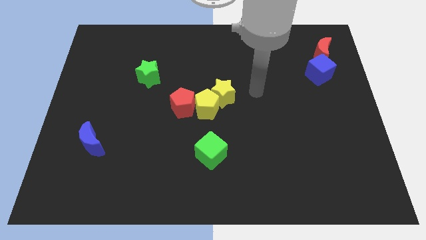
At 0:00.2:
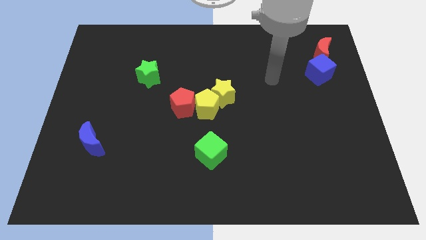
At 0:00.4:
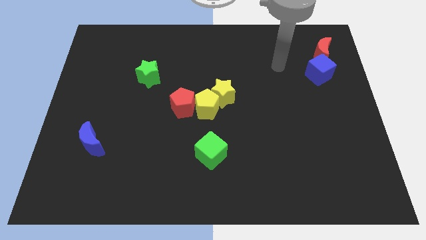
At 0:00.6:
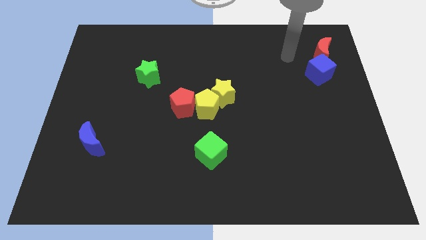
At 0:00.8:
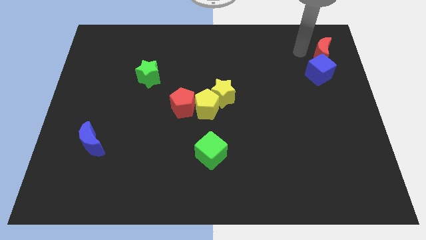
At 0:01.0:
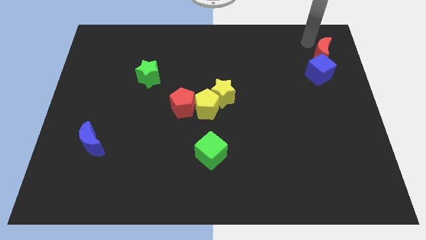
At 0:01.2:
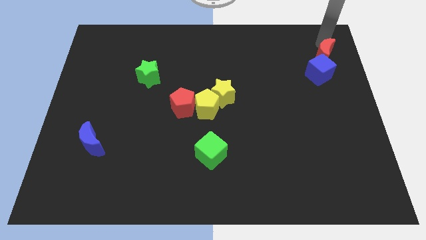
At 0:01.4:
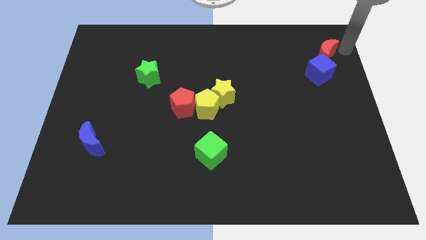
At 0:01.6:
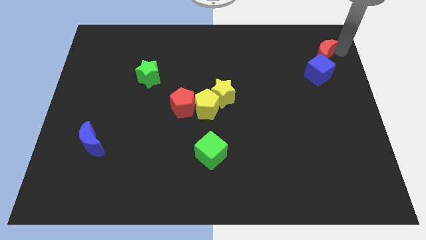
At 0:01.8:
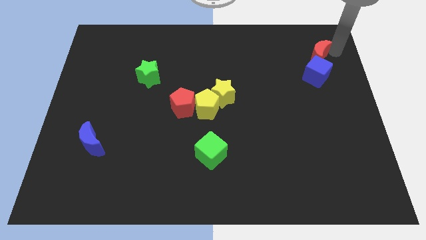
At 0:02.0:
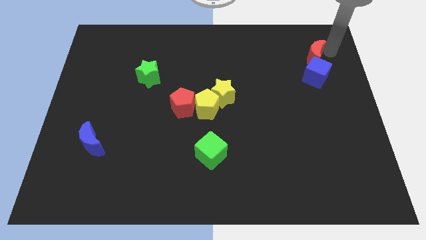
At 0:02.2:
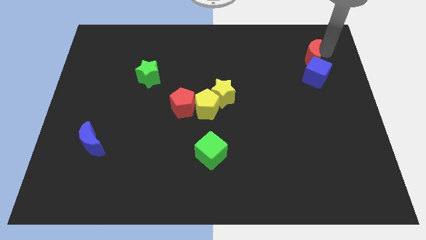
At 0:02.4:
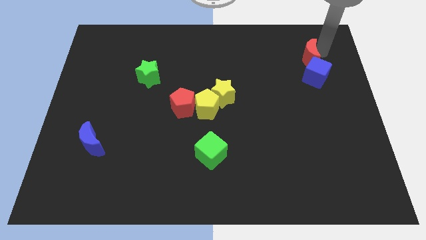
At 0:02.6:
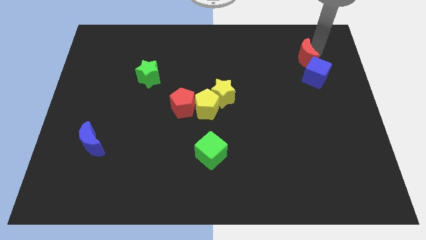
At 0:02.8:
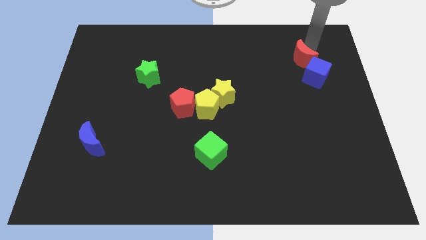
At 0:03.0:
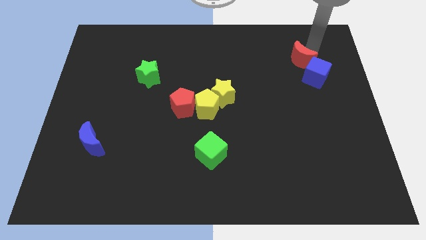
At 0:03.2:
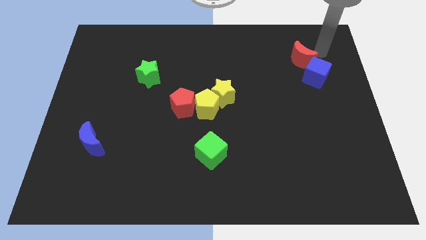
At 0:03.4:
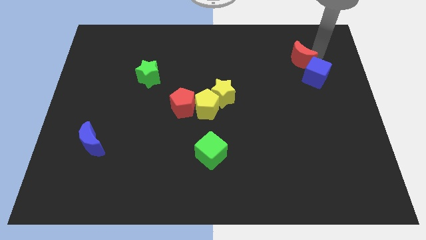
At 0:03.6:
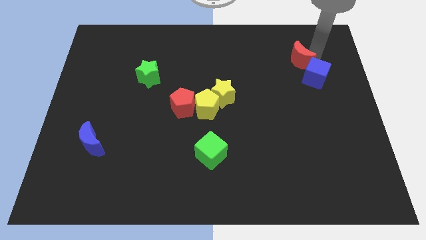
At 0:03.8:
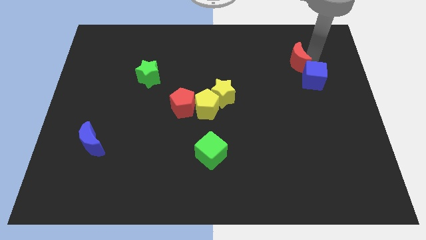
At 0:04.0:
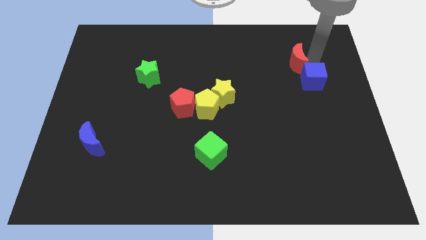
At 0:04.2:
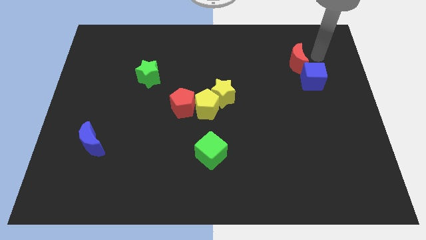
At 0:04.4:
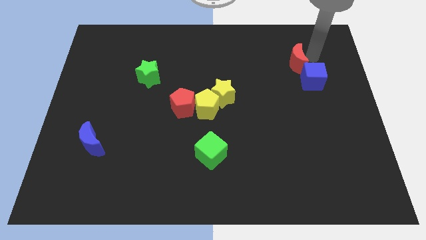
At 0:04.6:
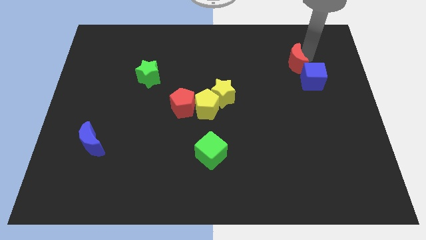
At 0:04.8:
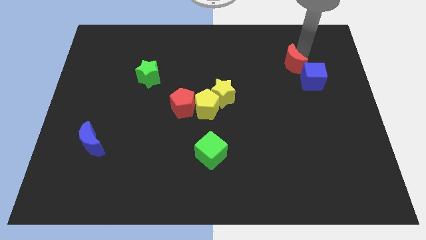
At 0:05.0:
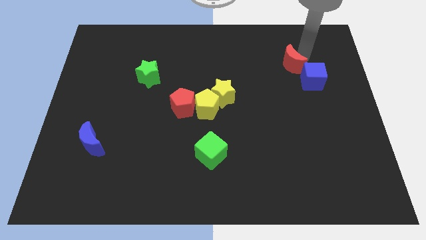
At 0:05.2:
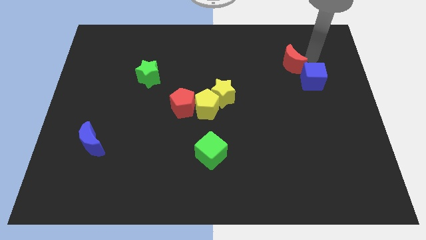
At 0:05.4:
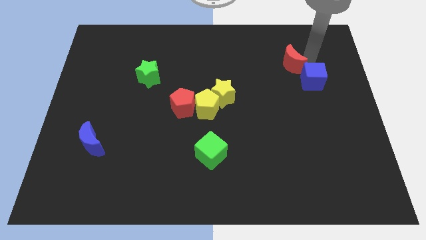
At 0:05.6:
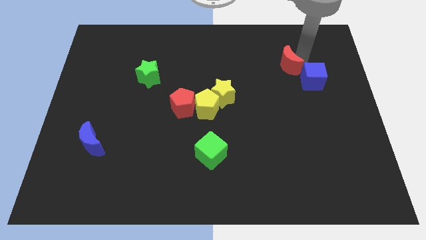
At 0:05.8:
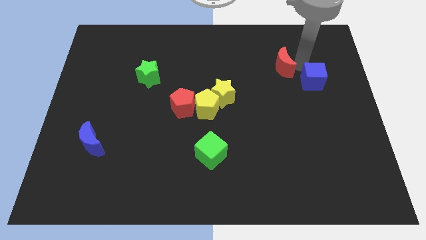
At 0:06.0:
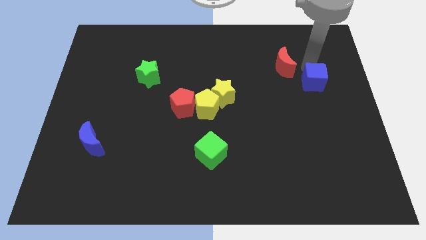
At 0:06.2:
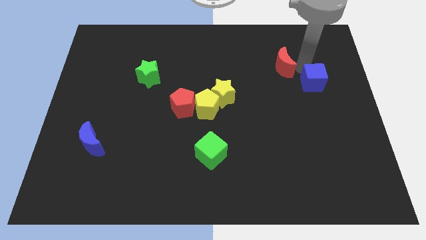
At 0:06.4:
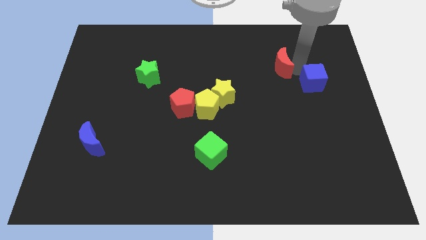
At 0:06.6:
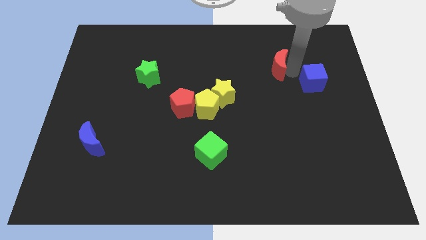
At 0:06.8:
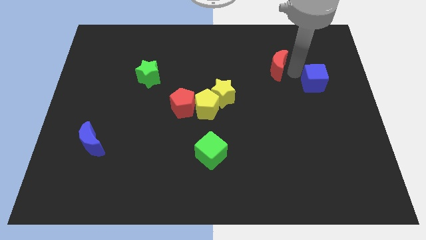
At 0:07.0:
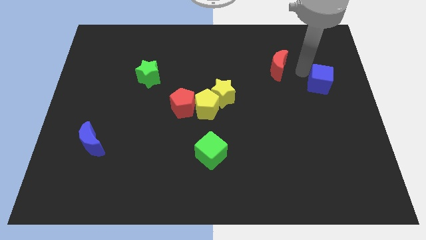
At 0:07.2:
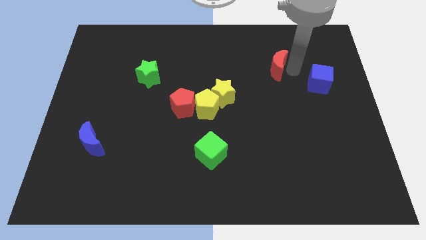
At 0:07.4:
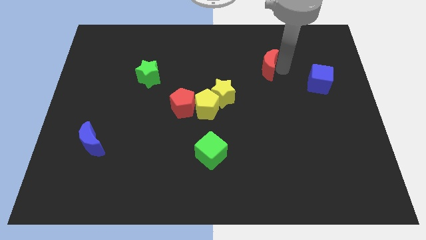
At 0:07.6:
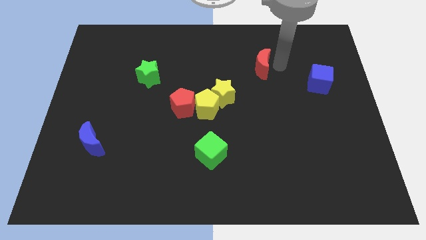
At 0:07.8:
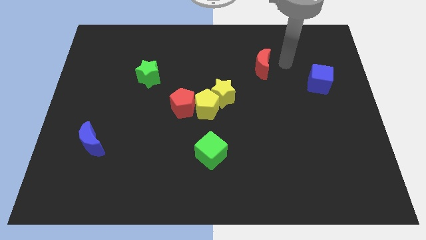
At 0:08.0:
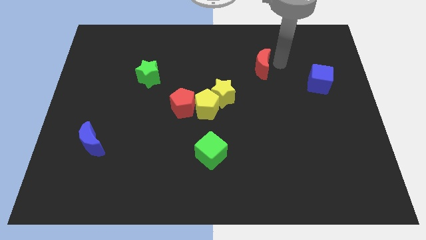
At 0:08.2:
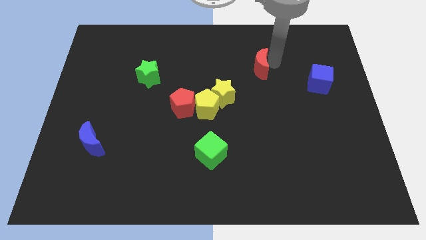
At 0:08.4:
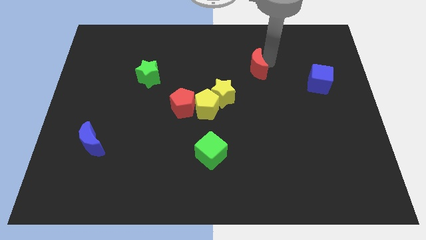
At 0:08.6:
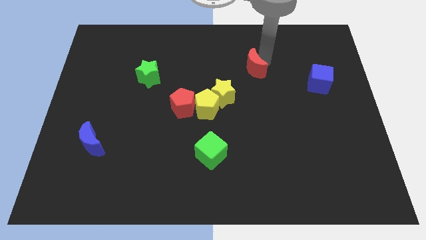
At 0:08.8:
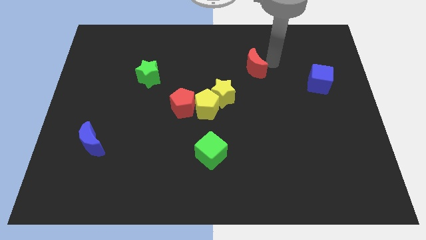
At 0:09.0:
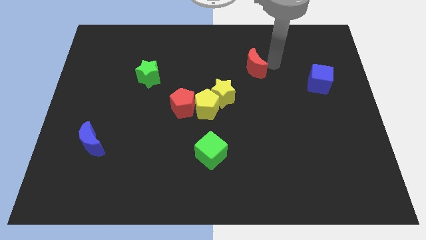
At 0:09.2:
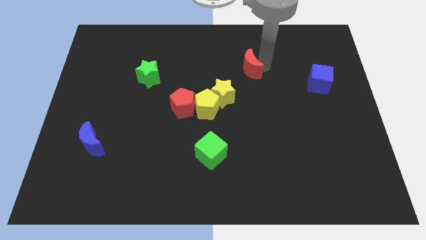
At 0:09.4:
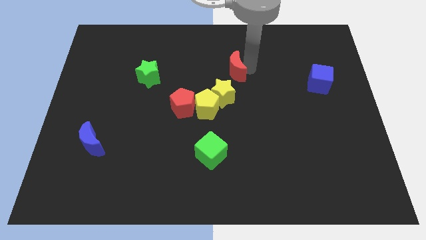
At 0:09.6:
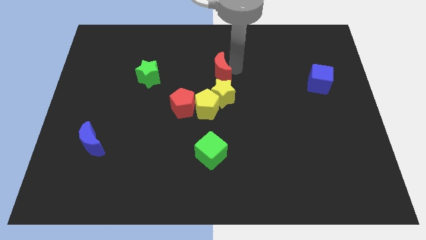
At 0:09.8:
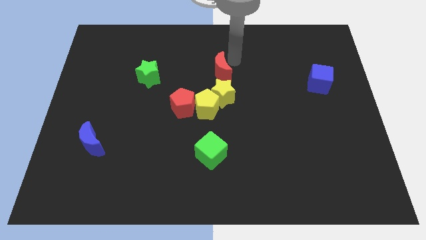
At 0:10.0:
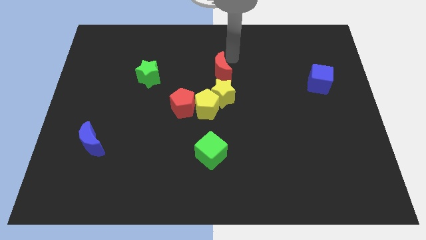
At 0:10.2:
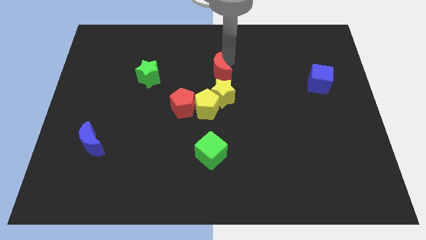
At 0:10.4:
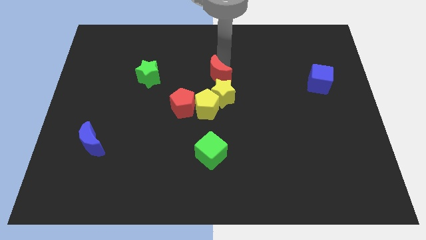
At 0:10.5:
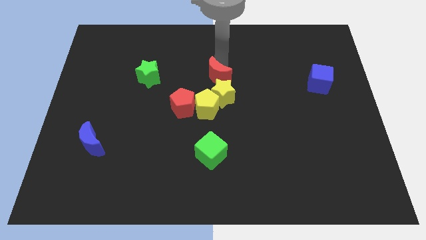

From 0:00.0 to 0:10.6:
slide the red moon to the top right of the red pentagon

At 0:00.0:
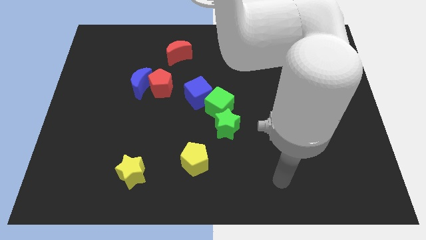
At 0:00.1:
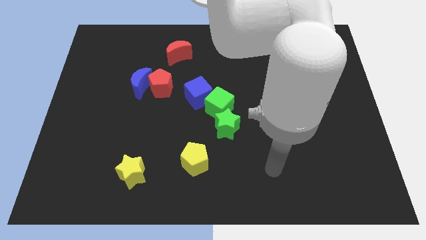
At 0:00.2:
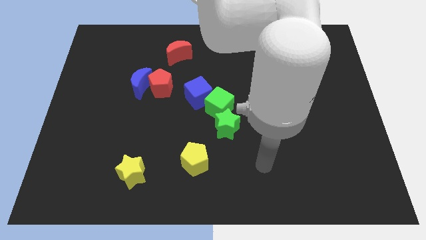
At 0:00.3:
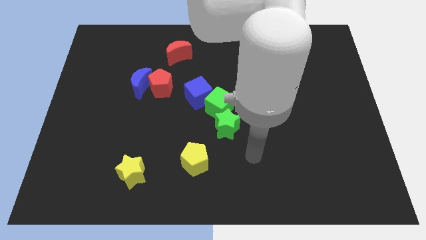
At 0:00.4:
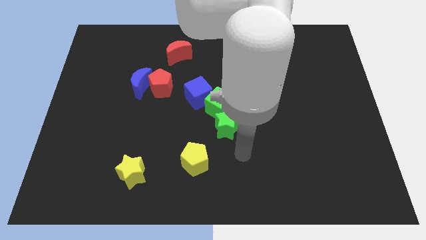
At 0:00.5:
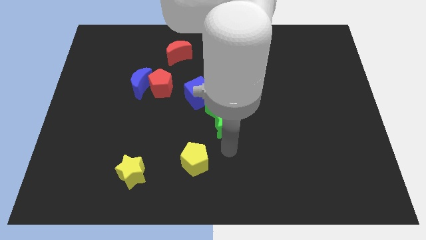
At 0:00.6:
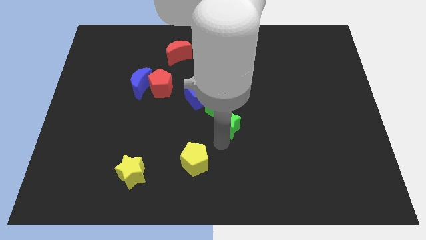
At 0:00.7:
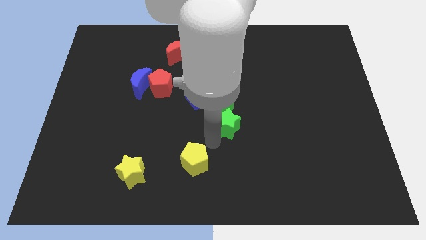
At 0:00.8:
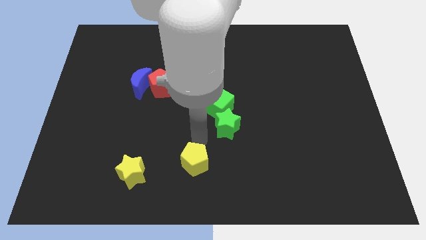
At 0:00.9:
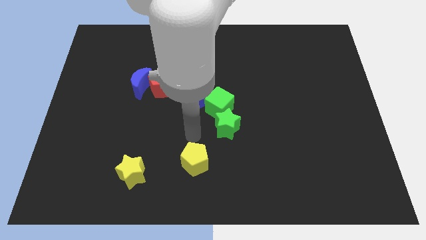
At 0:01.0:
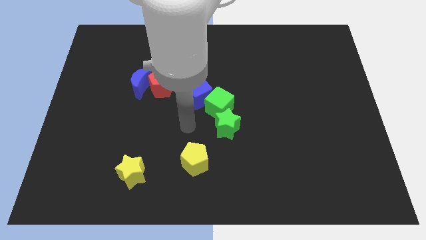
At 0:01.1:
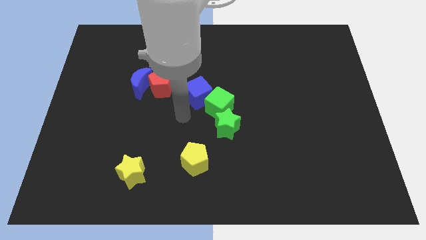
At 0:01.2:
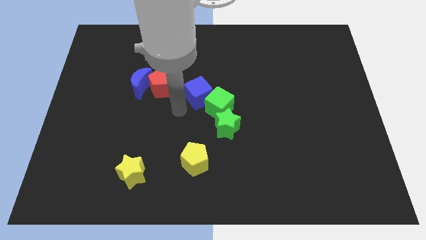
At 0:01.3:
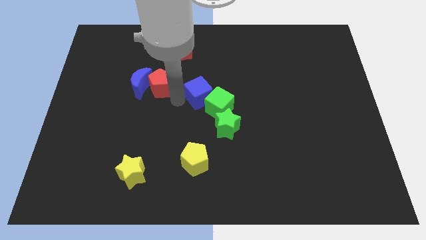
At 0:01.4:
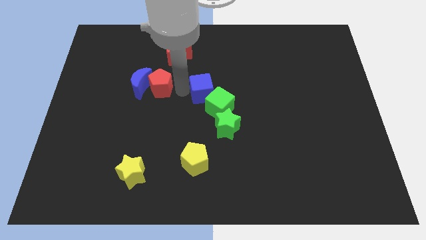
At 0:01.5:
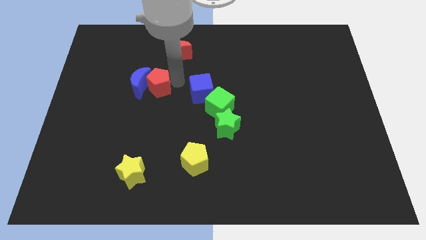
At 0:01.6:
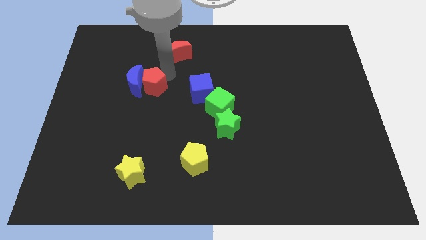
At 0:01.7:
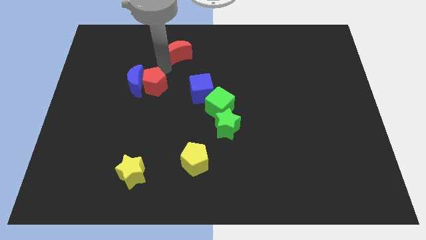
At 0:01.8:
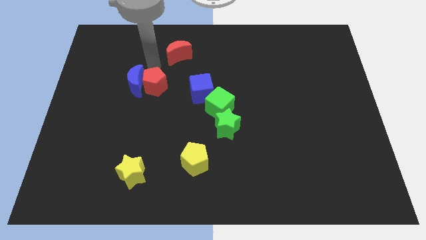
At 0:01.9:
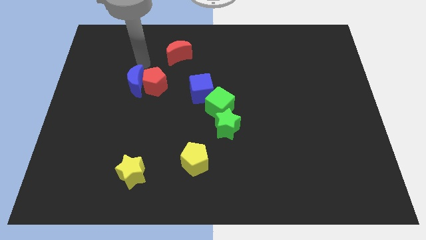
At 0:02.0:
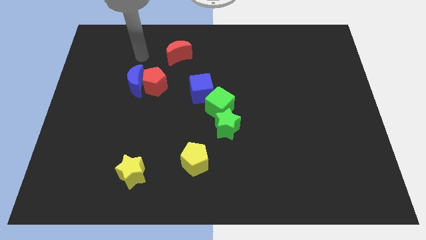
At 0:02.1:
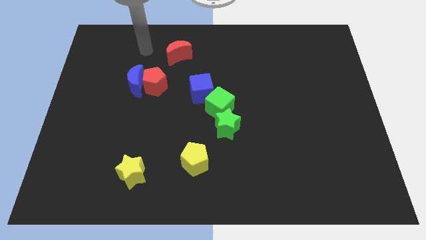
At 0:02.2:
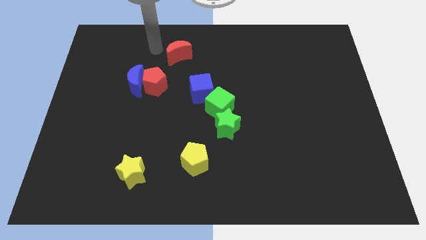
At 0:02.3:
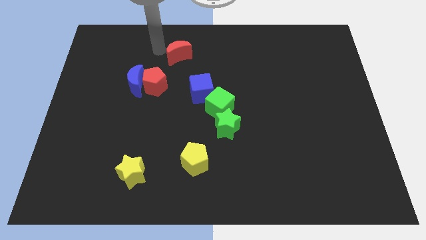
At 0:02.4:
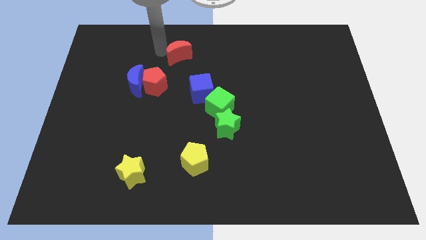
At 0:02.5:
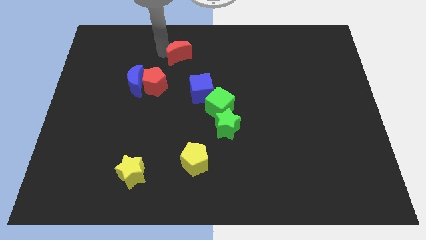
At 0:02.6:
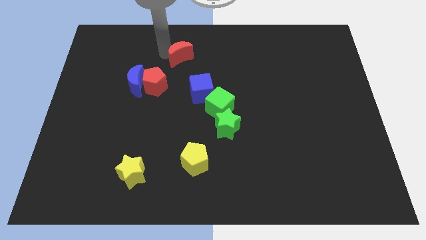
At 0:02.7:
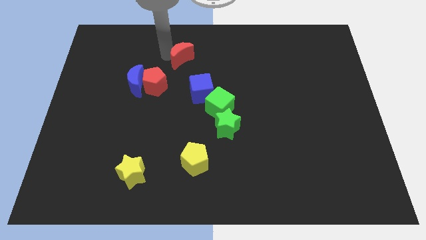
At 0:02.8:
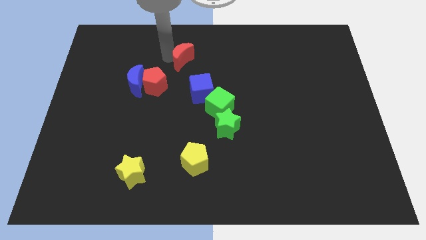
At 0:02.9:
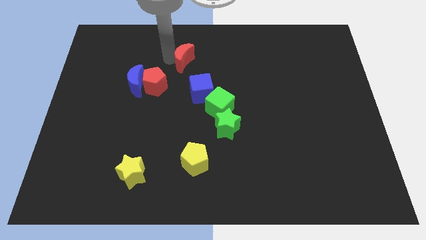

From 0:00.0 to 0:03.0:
move the red moon to the top side of the blue cube
